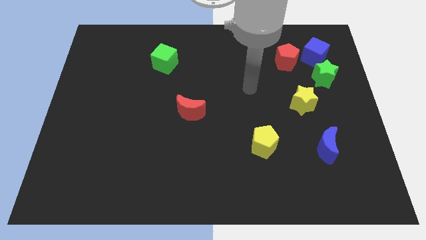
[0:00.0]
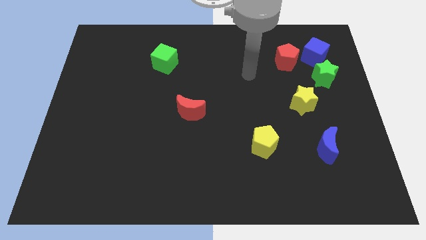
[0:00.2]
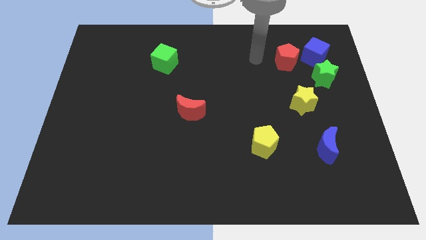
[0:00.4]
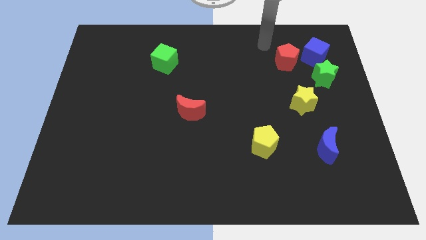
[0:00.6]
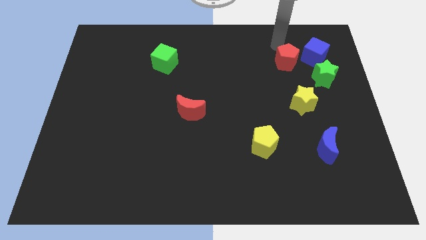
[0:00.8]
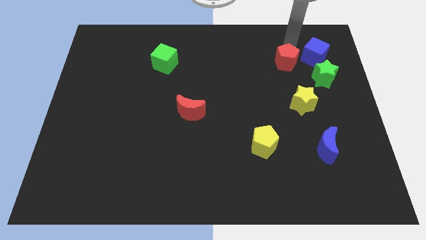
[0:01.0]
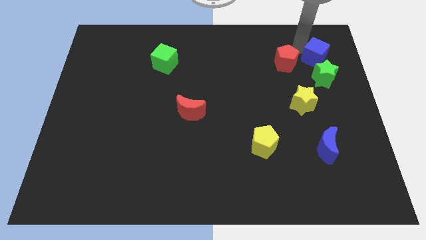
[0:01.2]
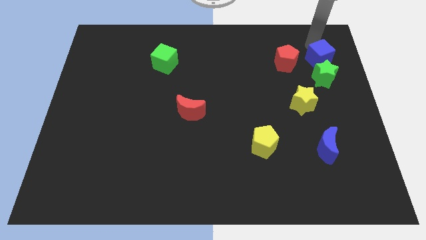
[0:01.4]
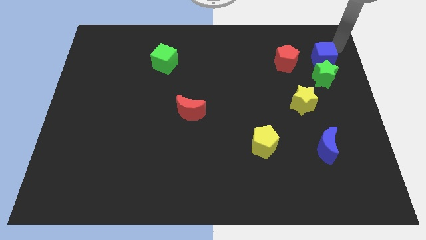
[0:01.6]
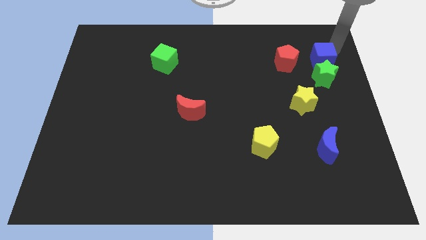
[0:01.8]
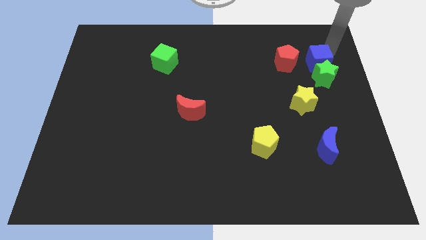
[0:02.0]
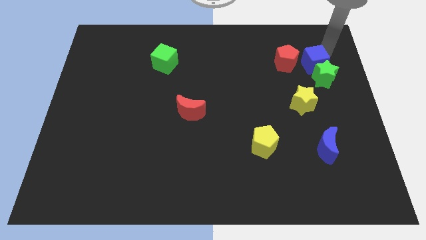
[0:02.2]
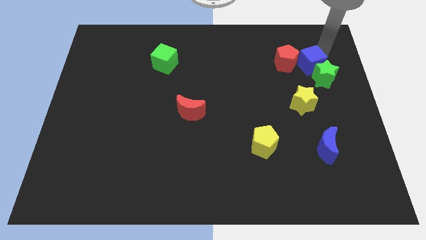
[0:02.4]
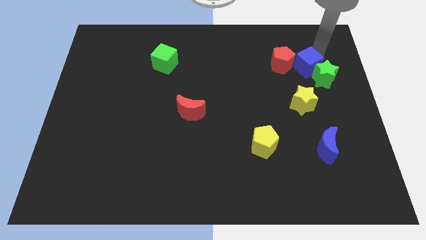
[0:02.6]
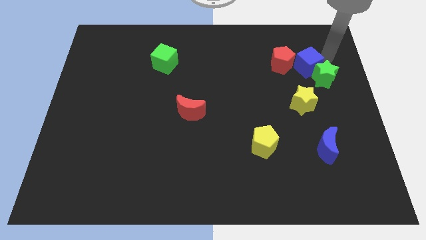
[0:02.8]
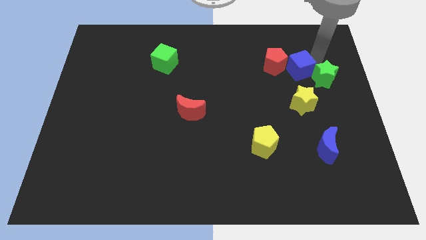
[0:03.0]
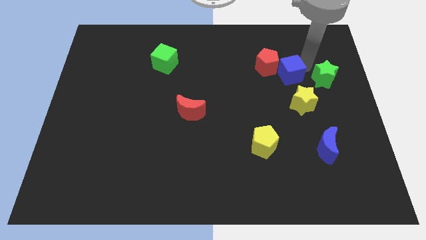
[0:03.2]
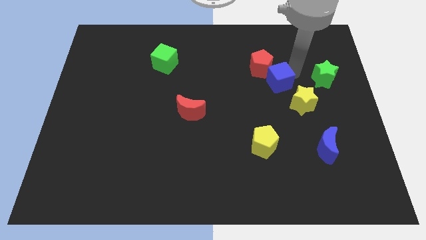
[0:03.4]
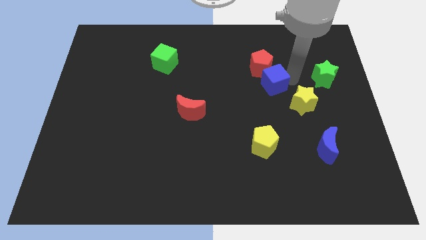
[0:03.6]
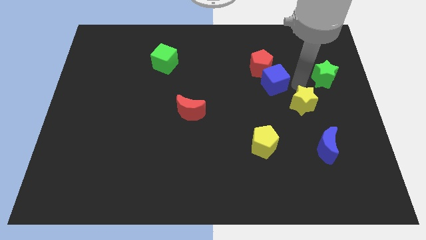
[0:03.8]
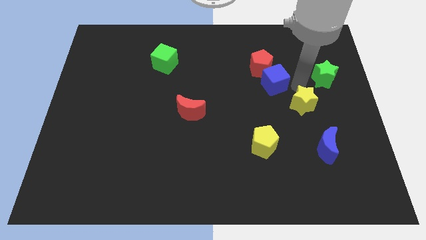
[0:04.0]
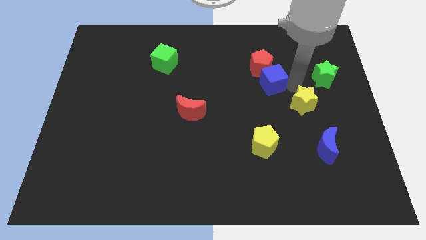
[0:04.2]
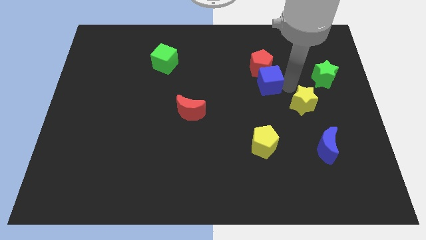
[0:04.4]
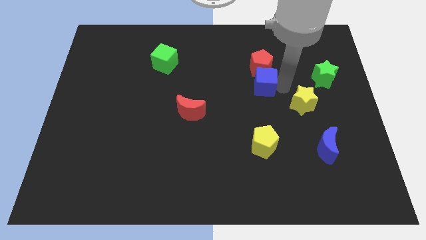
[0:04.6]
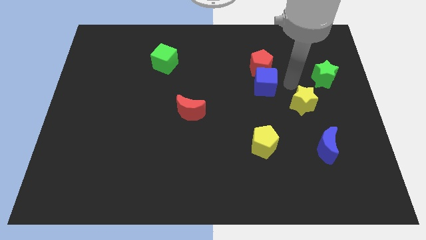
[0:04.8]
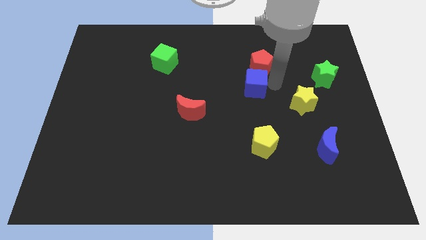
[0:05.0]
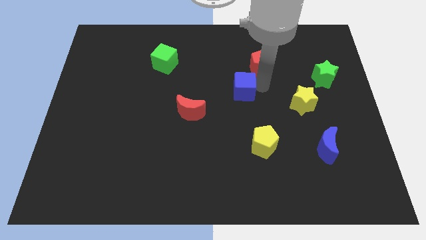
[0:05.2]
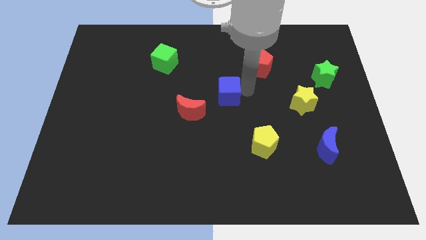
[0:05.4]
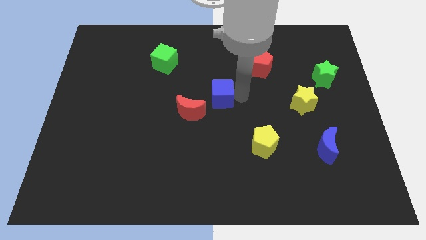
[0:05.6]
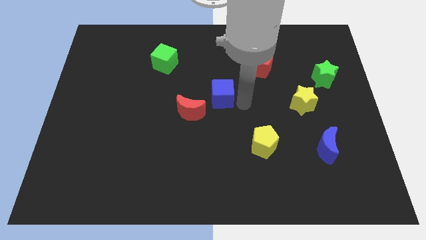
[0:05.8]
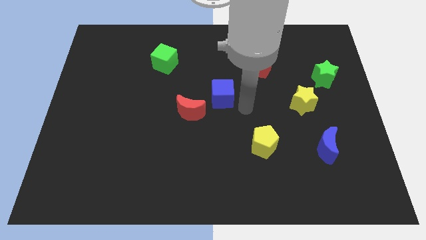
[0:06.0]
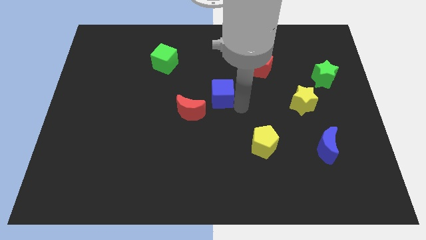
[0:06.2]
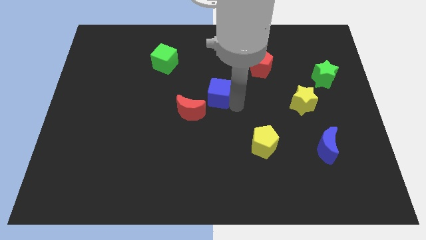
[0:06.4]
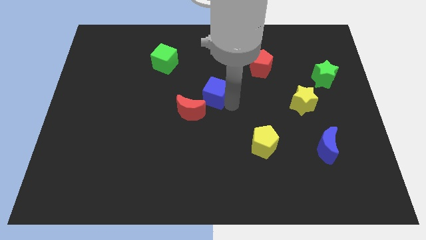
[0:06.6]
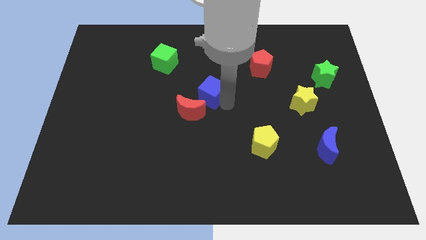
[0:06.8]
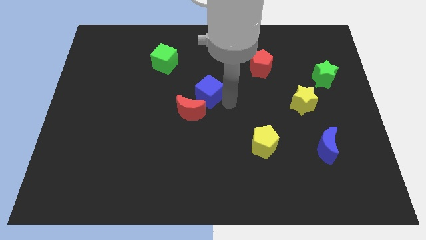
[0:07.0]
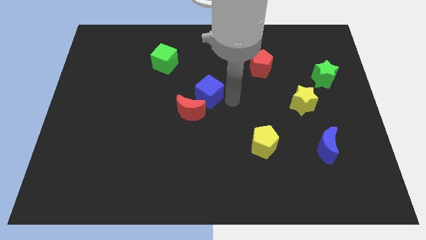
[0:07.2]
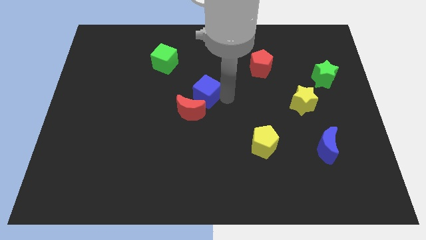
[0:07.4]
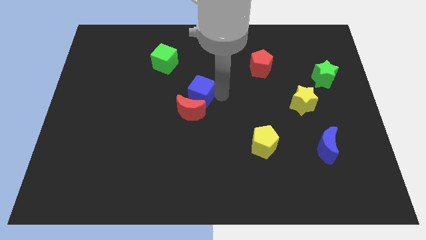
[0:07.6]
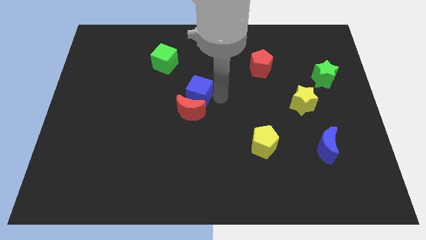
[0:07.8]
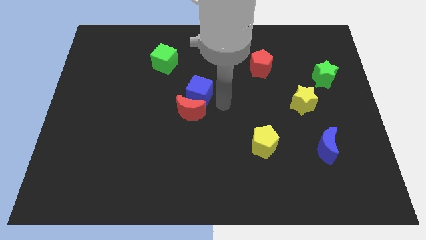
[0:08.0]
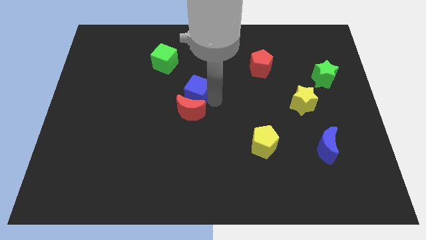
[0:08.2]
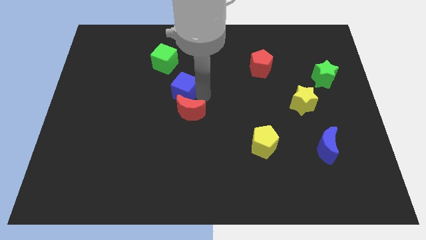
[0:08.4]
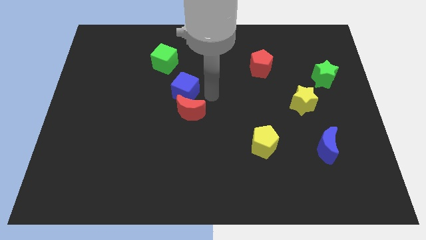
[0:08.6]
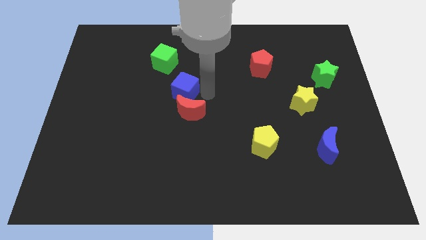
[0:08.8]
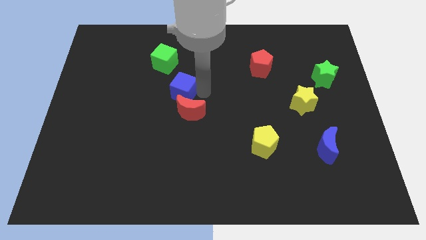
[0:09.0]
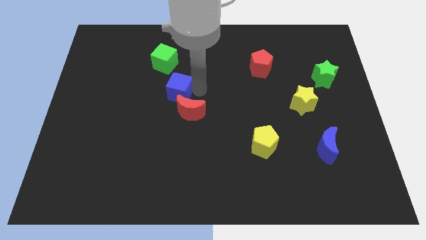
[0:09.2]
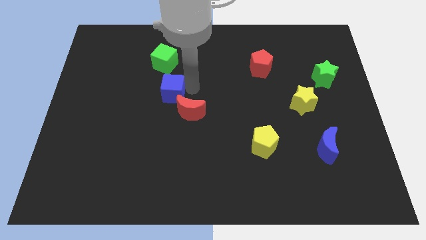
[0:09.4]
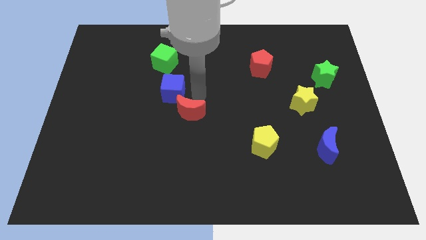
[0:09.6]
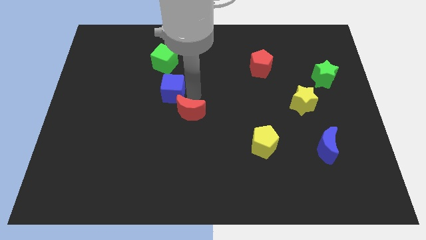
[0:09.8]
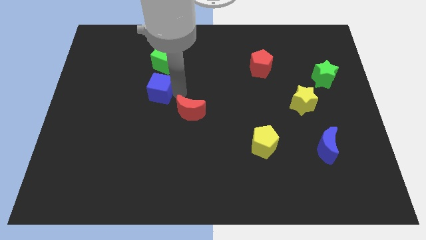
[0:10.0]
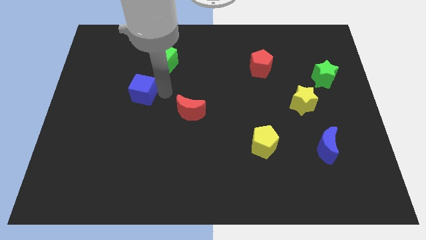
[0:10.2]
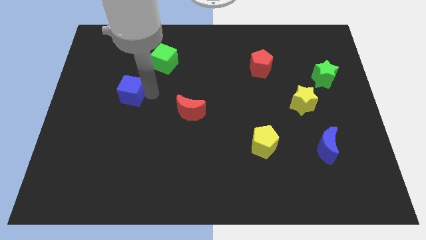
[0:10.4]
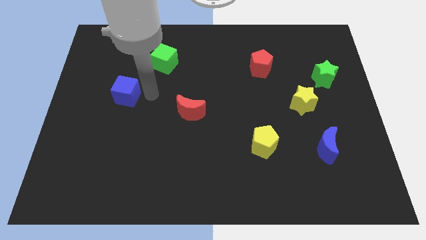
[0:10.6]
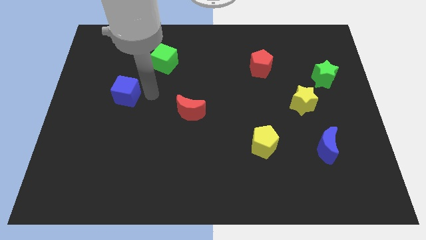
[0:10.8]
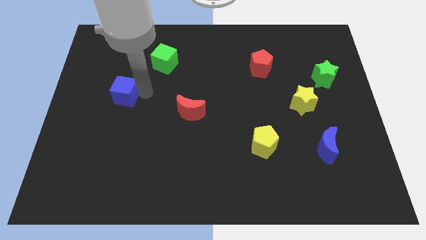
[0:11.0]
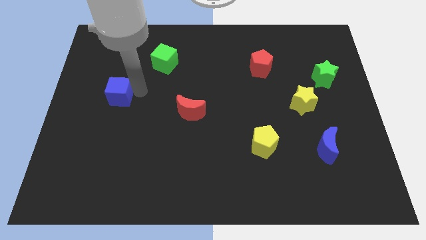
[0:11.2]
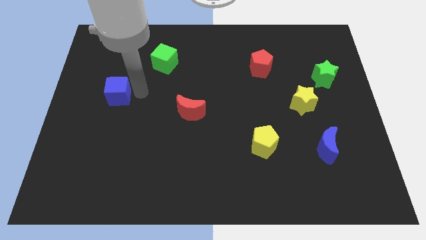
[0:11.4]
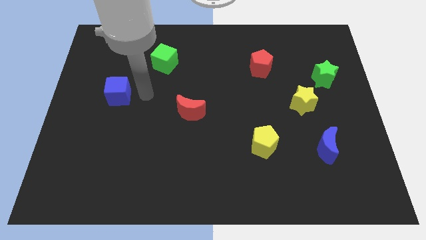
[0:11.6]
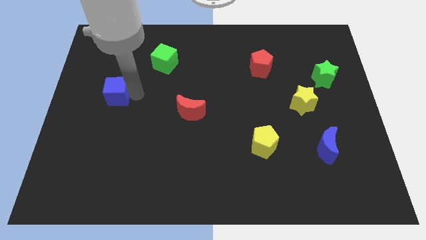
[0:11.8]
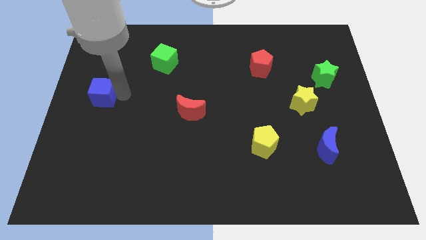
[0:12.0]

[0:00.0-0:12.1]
move the blue cube to the left side of the board
